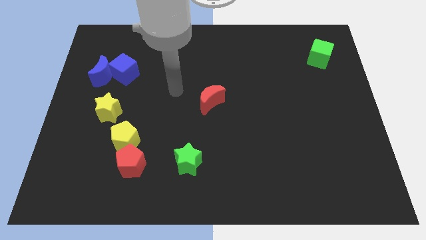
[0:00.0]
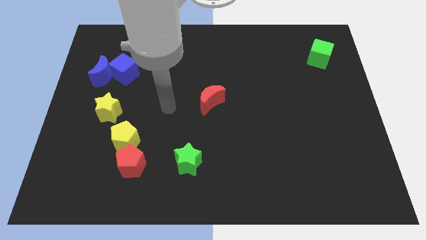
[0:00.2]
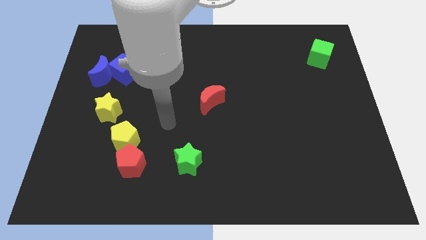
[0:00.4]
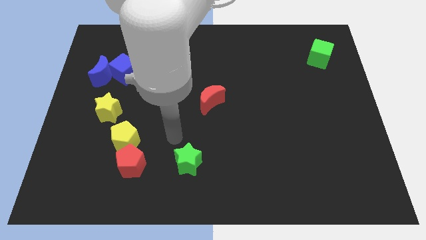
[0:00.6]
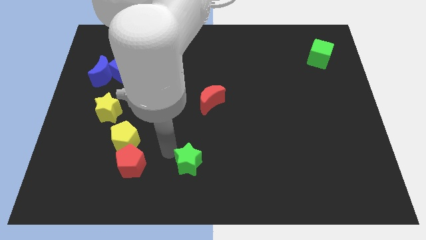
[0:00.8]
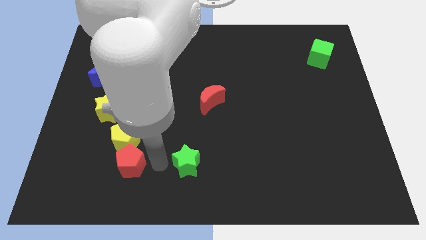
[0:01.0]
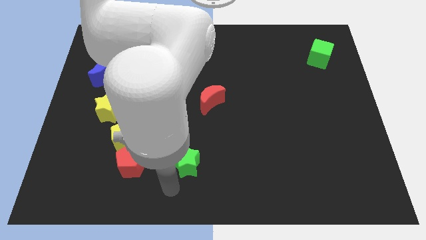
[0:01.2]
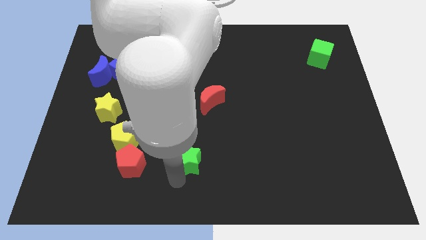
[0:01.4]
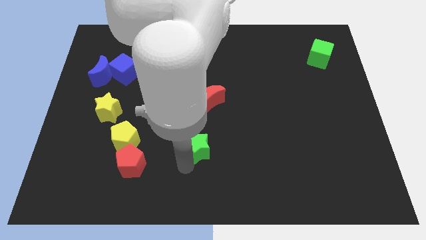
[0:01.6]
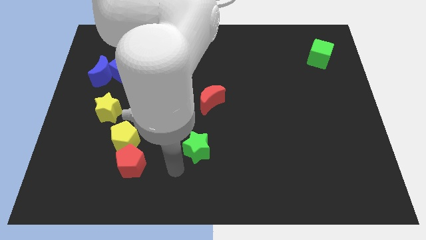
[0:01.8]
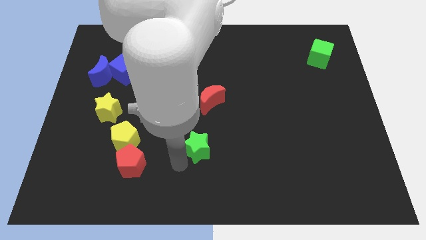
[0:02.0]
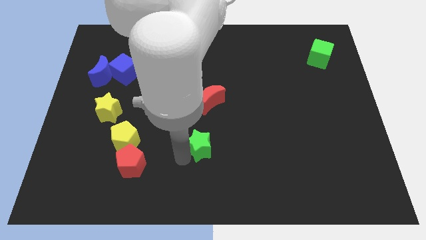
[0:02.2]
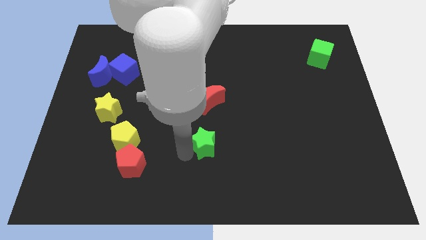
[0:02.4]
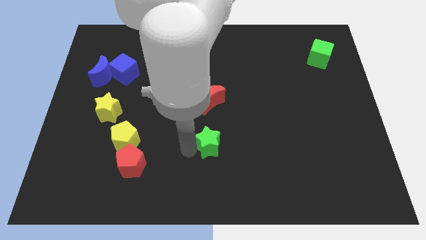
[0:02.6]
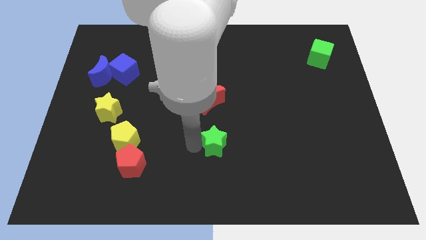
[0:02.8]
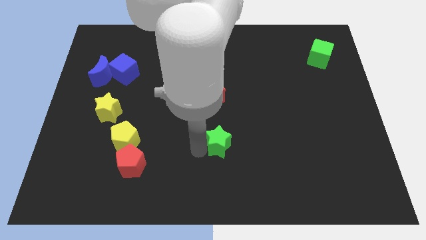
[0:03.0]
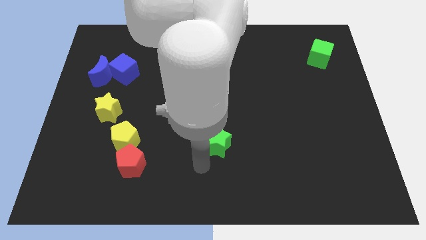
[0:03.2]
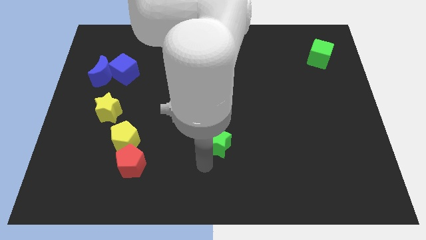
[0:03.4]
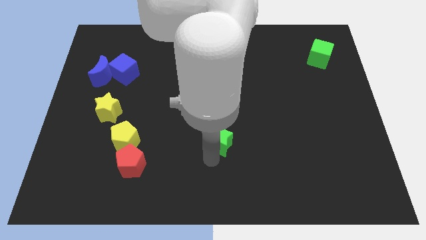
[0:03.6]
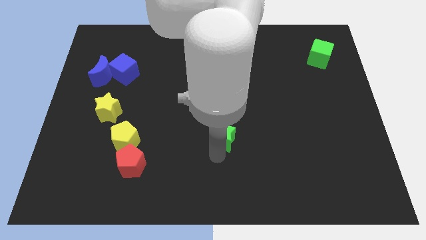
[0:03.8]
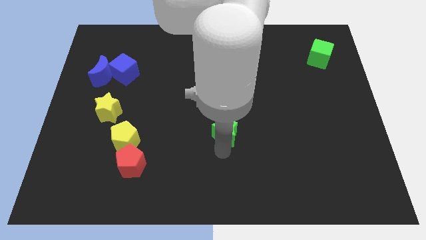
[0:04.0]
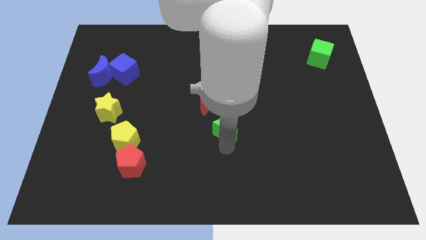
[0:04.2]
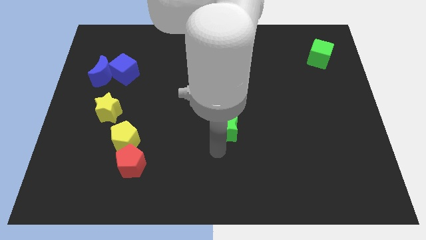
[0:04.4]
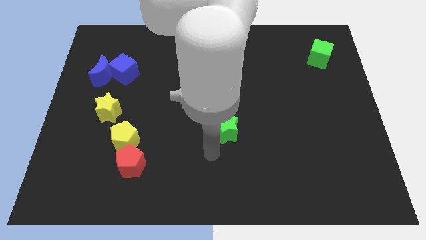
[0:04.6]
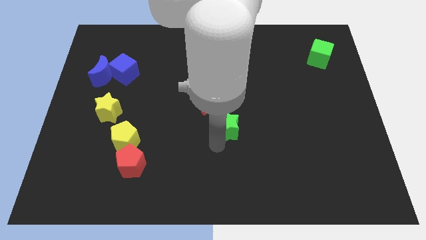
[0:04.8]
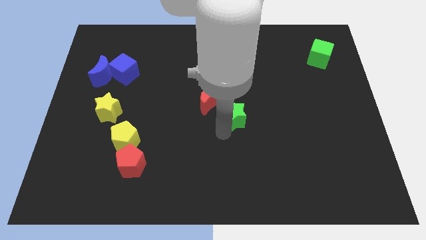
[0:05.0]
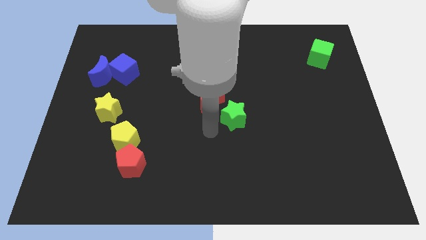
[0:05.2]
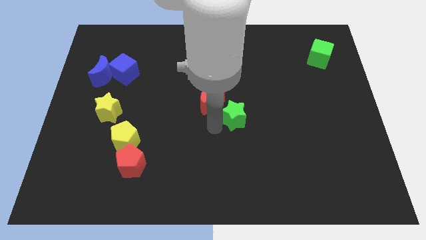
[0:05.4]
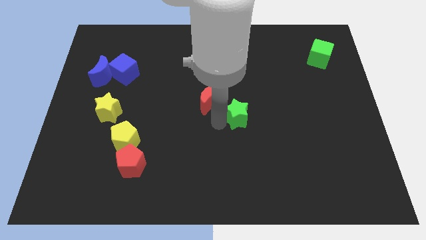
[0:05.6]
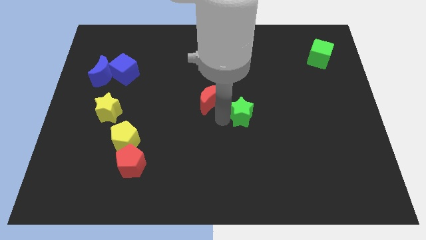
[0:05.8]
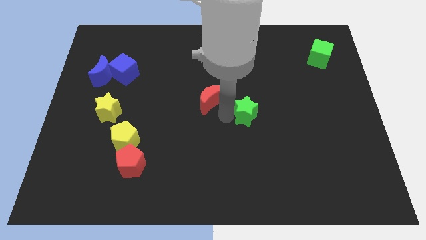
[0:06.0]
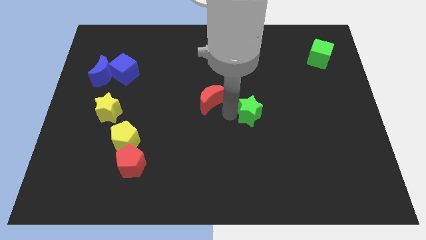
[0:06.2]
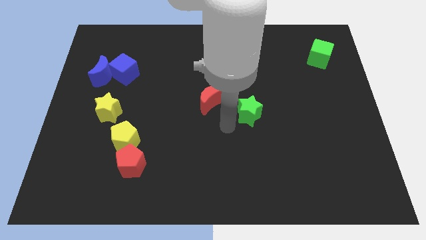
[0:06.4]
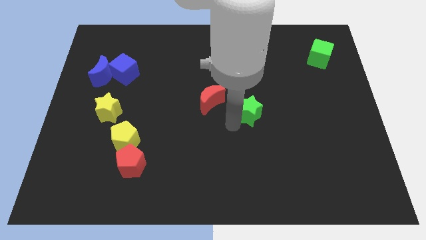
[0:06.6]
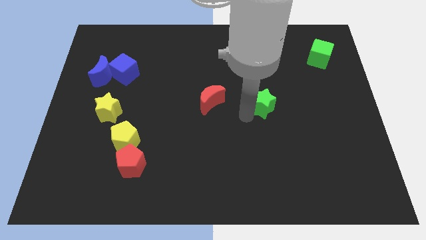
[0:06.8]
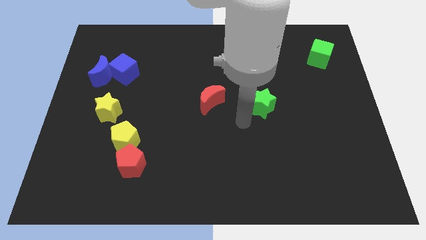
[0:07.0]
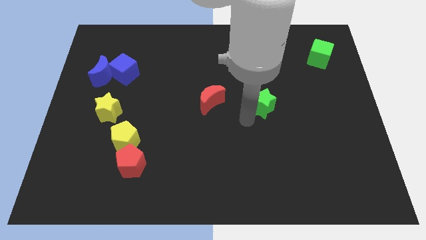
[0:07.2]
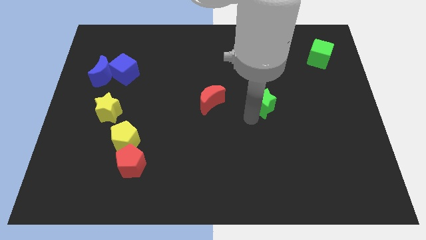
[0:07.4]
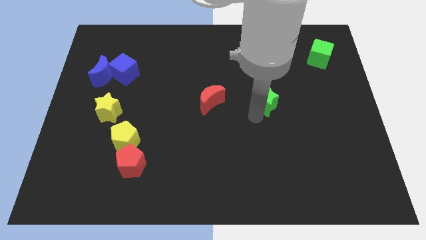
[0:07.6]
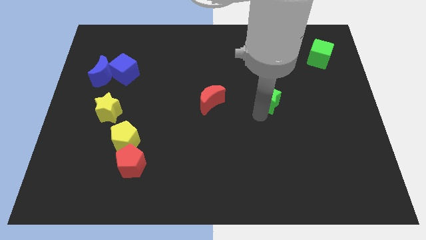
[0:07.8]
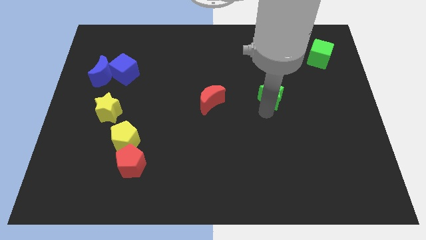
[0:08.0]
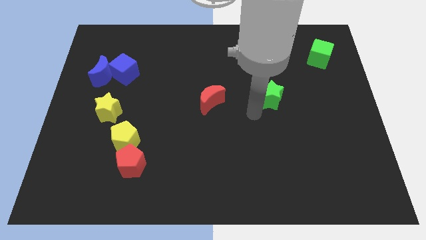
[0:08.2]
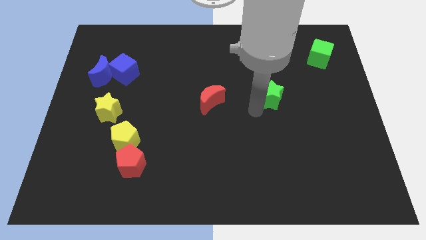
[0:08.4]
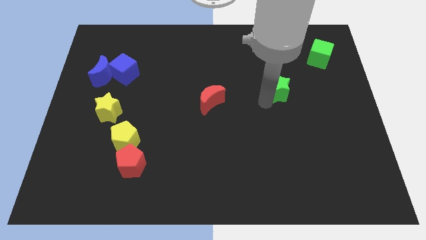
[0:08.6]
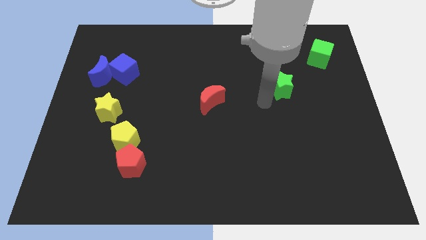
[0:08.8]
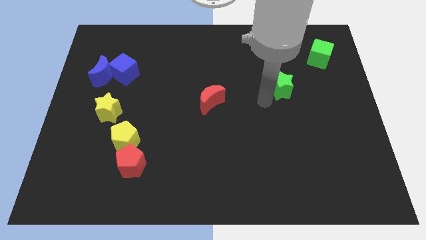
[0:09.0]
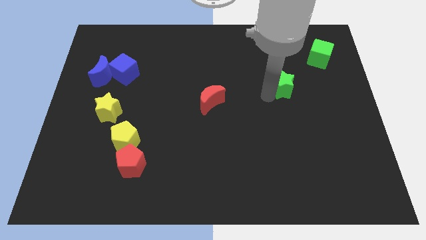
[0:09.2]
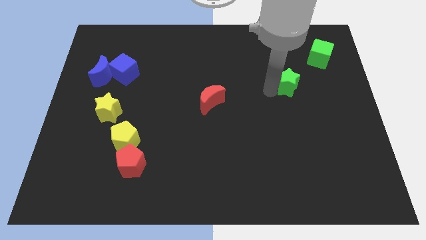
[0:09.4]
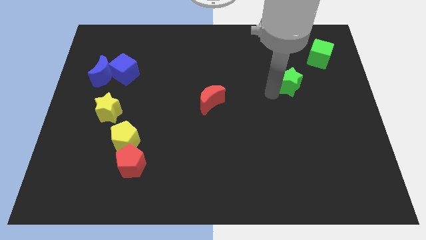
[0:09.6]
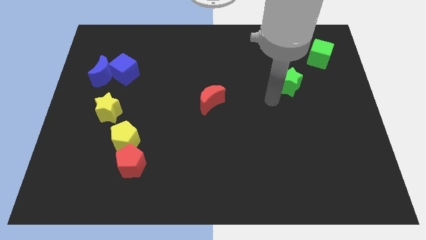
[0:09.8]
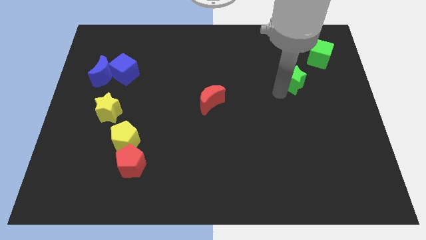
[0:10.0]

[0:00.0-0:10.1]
move the green star to the bottom left of the green cube

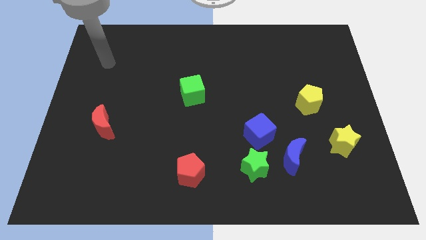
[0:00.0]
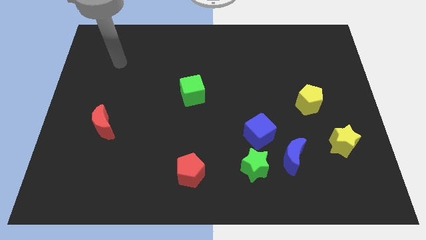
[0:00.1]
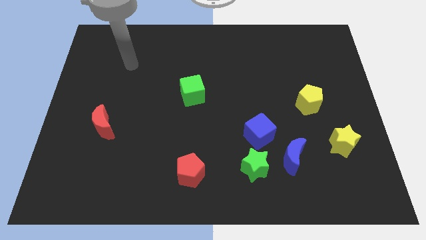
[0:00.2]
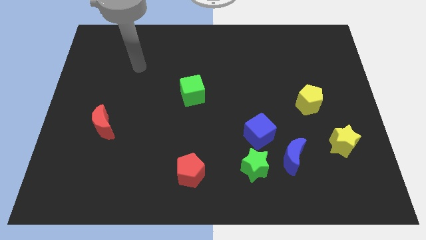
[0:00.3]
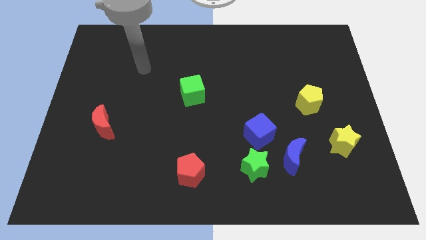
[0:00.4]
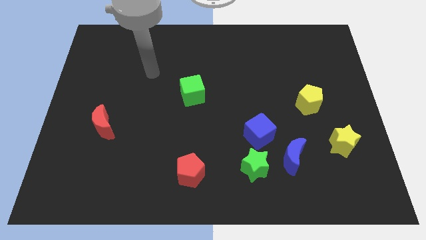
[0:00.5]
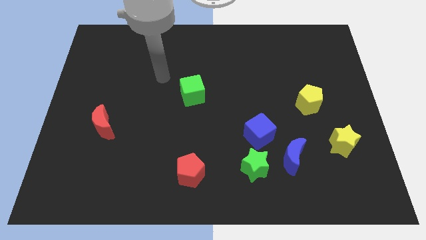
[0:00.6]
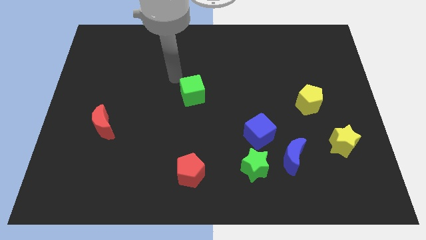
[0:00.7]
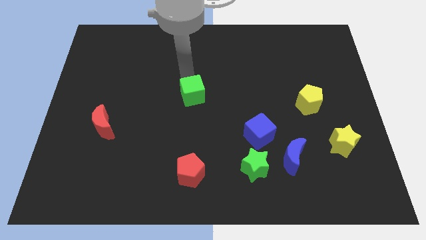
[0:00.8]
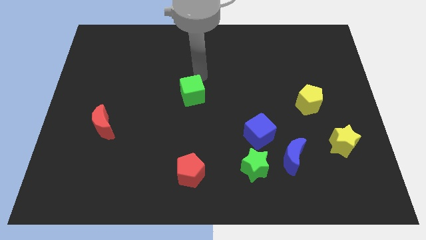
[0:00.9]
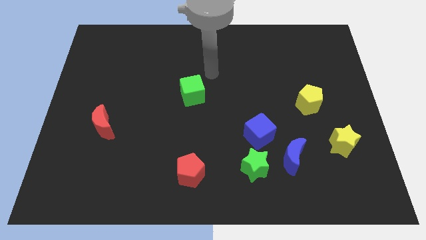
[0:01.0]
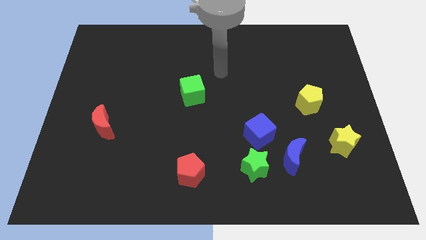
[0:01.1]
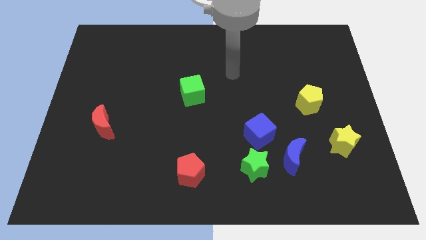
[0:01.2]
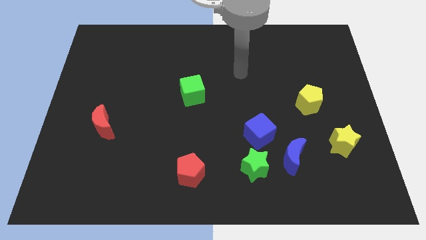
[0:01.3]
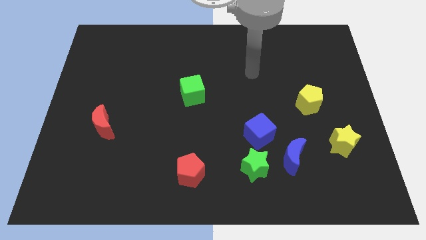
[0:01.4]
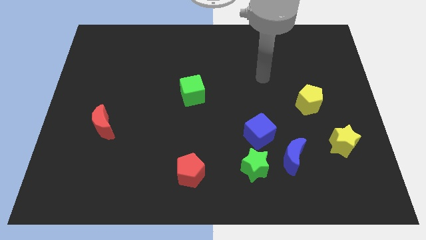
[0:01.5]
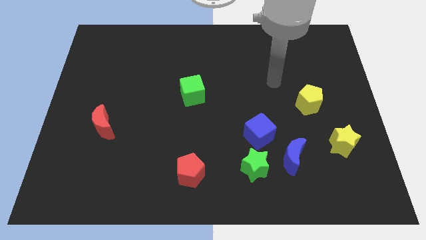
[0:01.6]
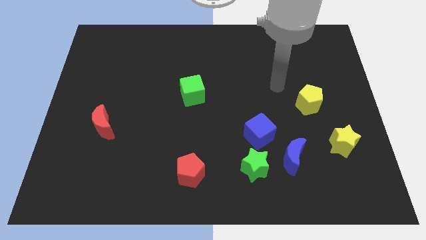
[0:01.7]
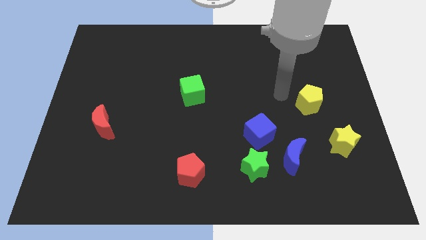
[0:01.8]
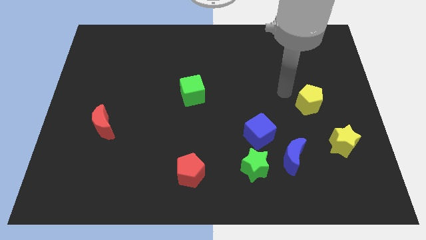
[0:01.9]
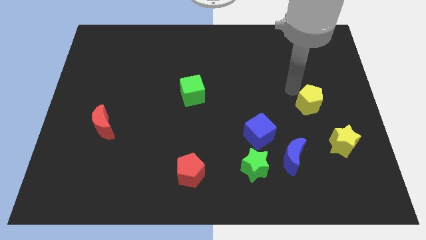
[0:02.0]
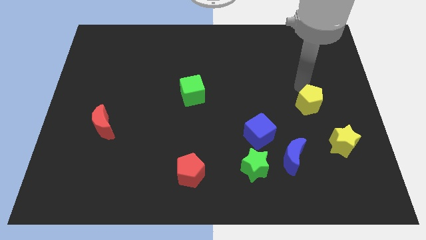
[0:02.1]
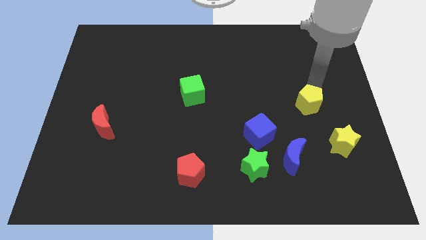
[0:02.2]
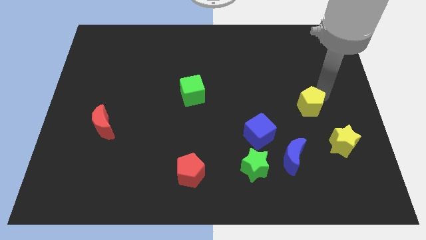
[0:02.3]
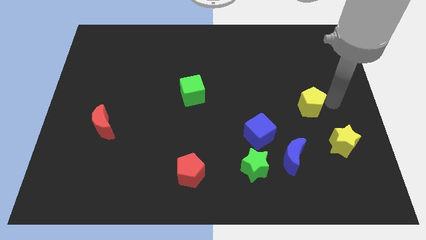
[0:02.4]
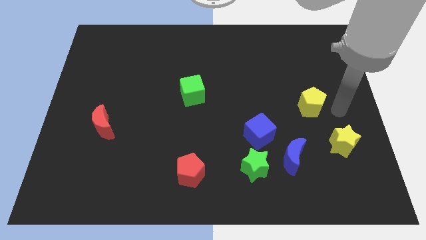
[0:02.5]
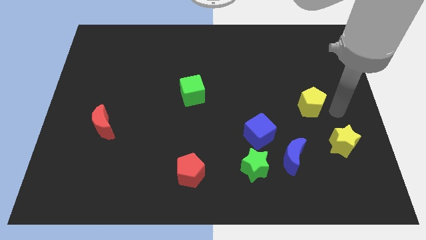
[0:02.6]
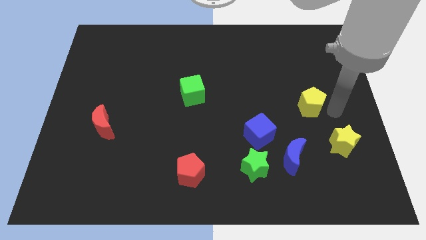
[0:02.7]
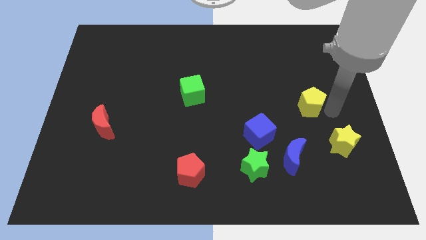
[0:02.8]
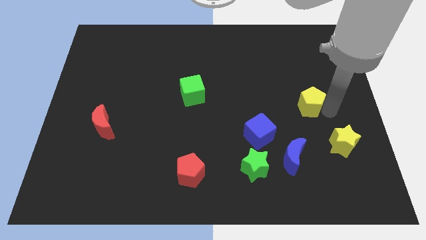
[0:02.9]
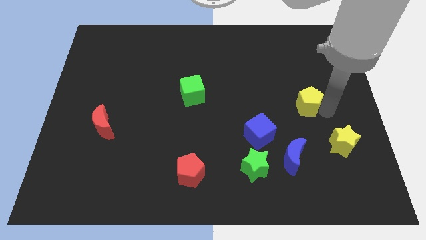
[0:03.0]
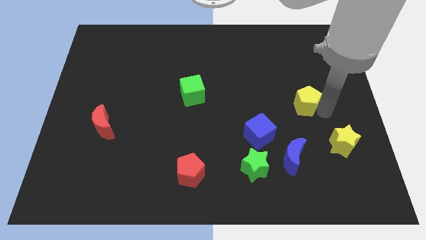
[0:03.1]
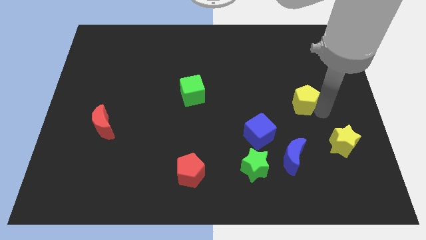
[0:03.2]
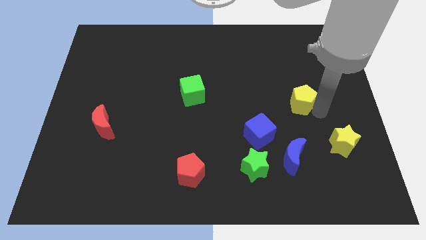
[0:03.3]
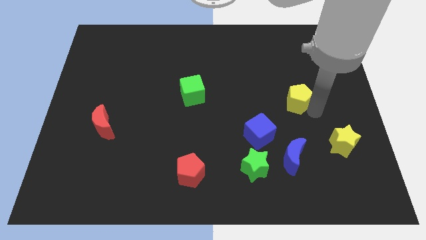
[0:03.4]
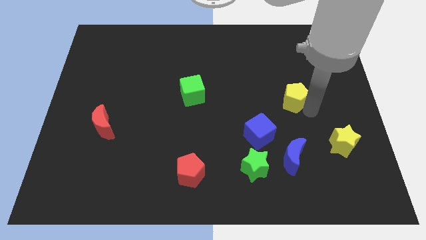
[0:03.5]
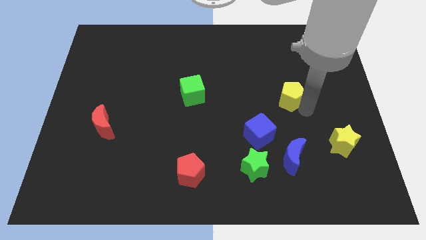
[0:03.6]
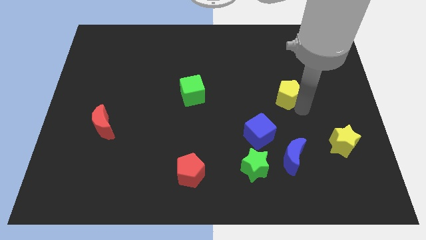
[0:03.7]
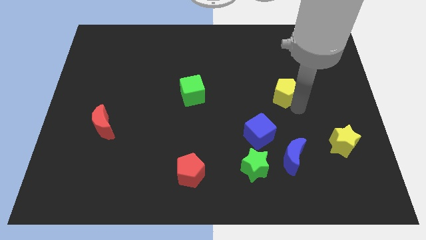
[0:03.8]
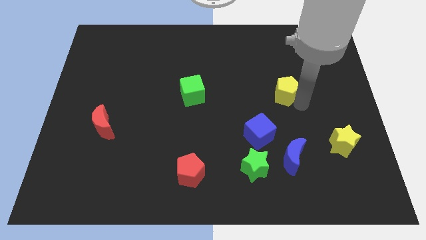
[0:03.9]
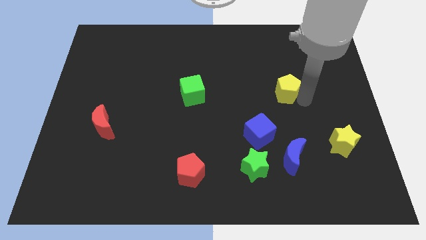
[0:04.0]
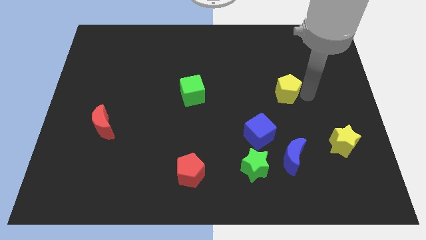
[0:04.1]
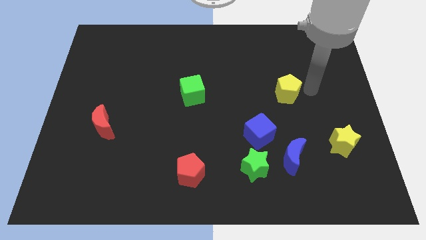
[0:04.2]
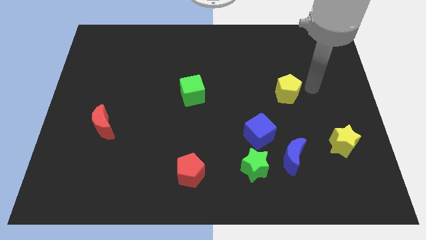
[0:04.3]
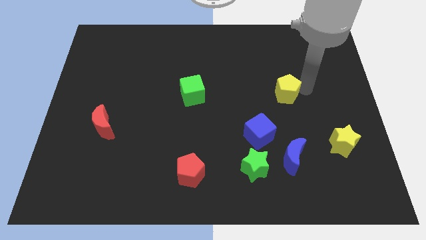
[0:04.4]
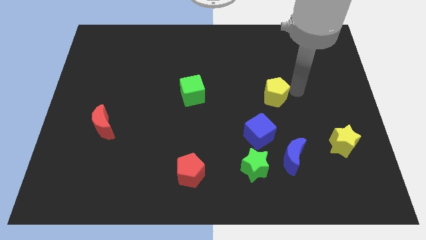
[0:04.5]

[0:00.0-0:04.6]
move the yellow pentagon above the blue cube
